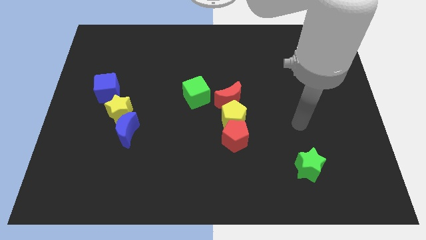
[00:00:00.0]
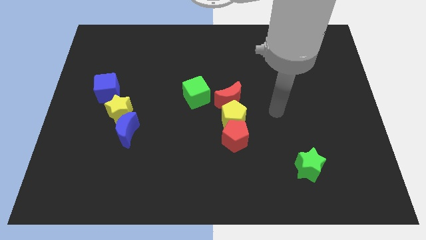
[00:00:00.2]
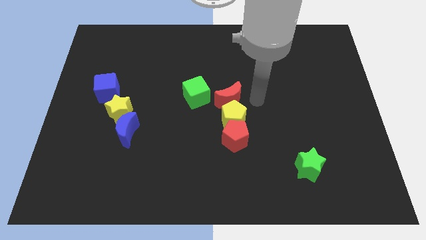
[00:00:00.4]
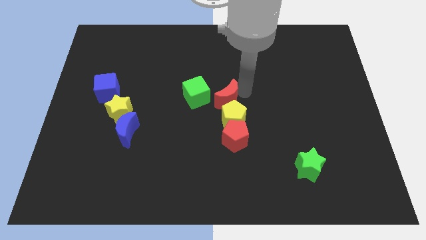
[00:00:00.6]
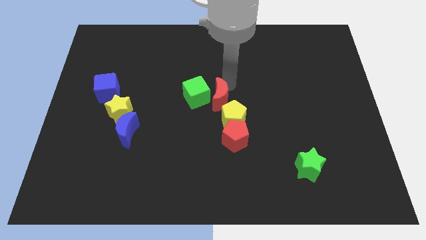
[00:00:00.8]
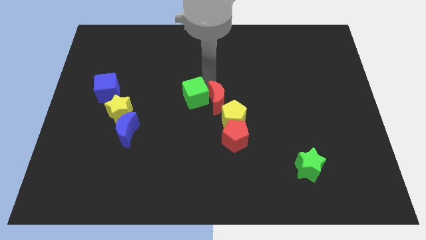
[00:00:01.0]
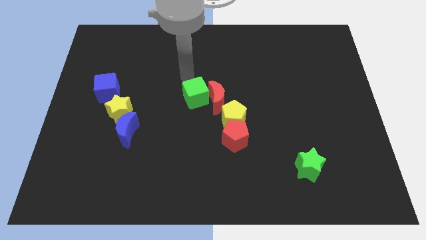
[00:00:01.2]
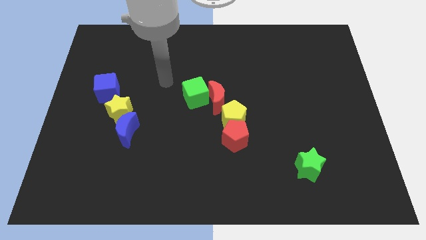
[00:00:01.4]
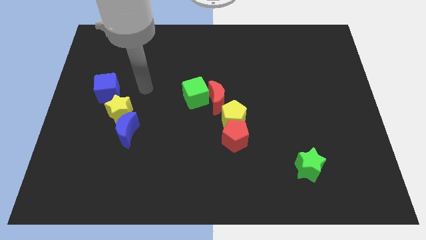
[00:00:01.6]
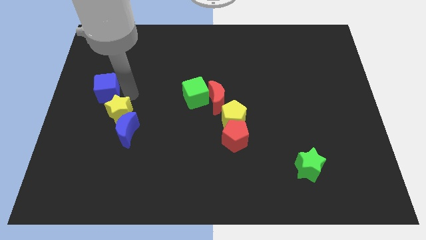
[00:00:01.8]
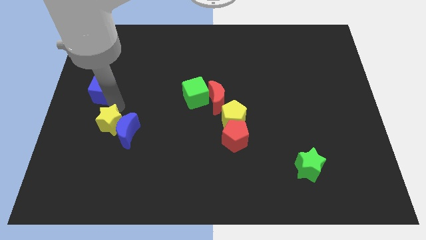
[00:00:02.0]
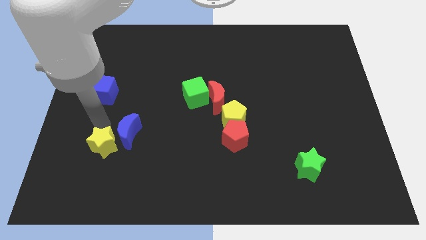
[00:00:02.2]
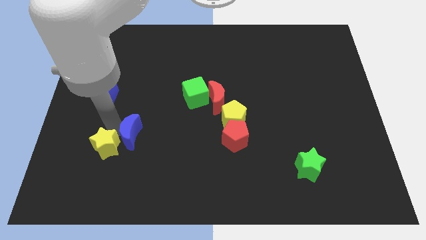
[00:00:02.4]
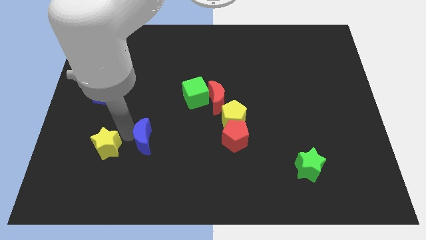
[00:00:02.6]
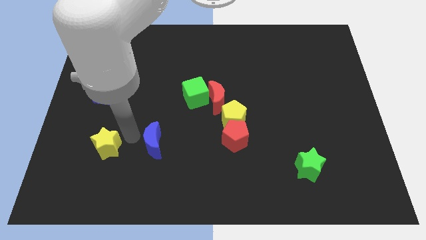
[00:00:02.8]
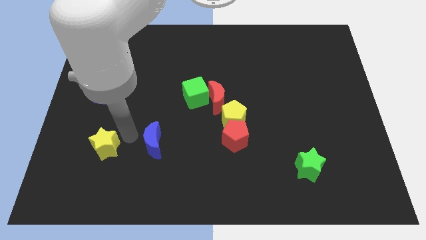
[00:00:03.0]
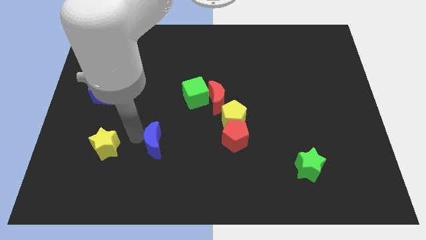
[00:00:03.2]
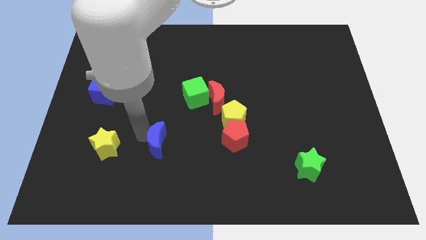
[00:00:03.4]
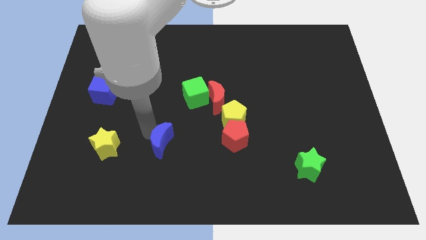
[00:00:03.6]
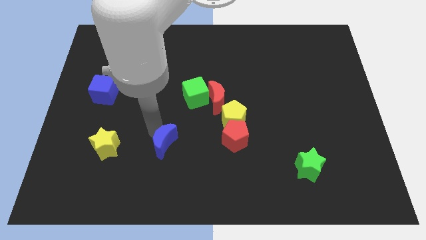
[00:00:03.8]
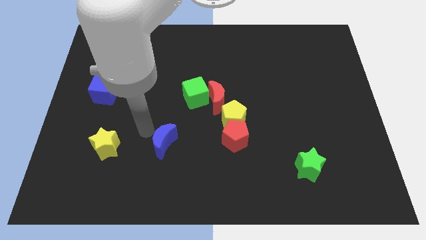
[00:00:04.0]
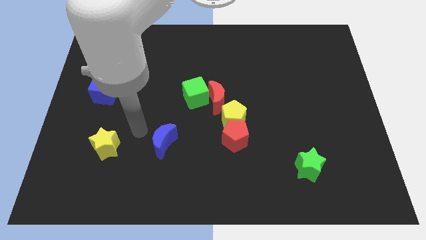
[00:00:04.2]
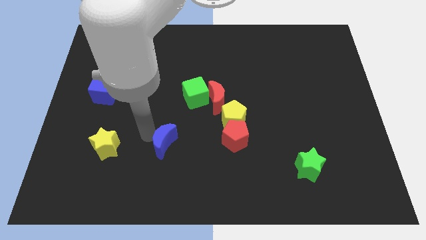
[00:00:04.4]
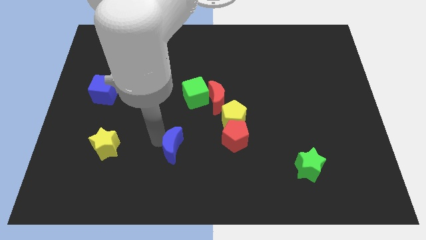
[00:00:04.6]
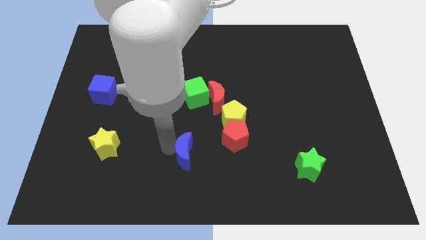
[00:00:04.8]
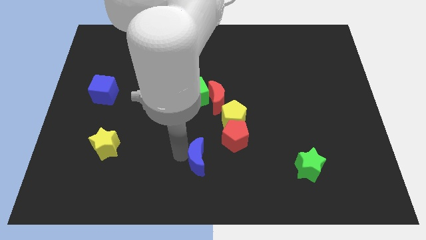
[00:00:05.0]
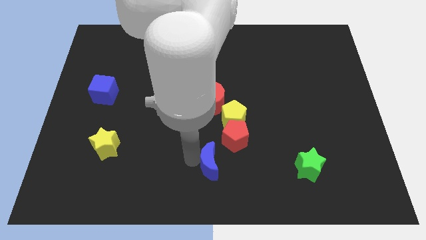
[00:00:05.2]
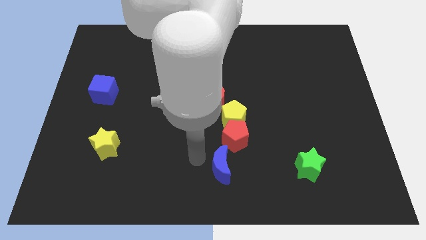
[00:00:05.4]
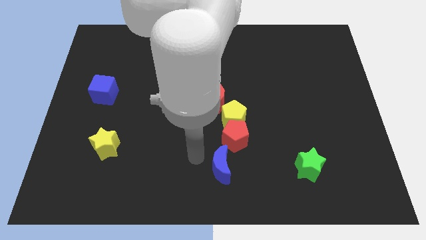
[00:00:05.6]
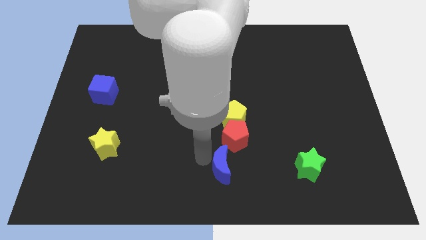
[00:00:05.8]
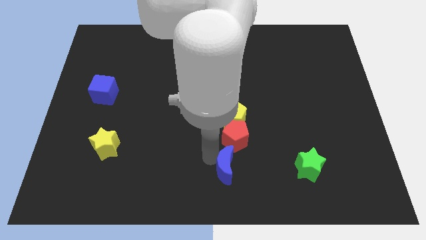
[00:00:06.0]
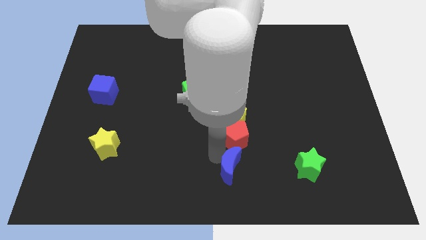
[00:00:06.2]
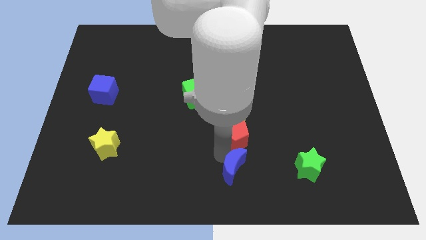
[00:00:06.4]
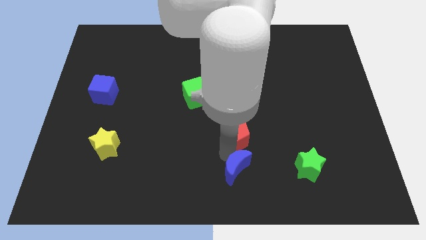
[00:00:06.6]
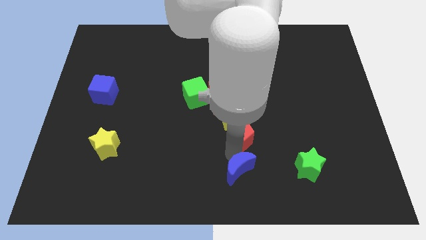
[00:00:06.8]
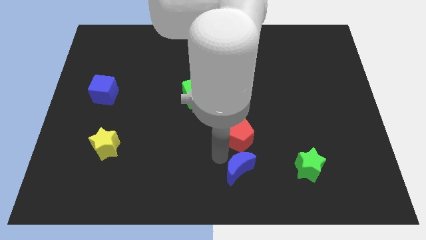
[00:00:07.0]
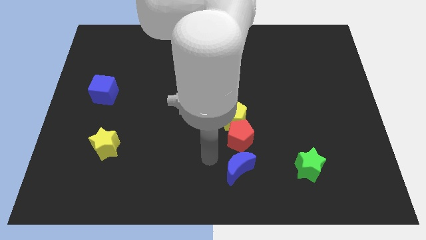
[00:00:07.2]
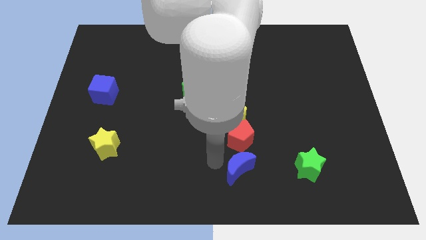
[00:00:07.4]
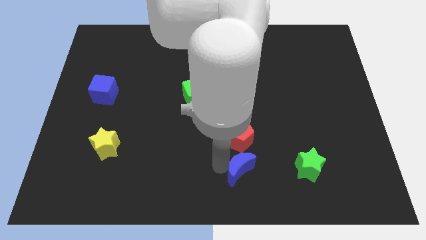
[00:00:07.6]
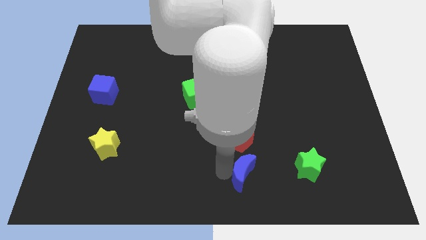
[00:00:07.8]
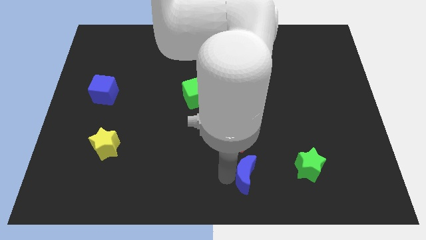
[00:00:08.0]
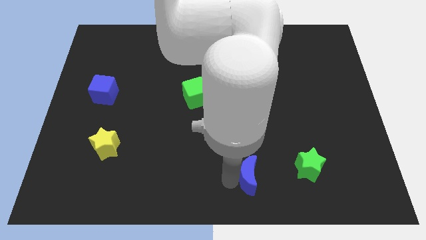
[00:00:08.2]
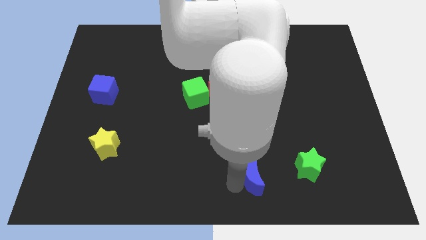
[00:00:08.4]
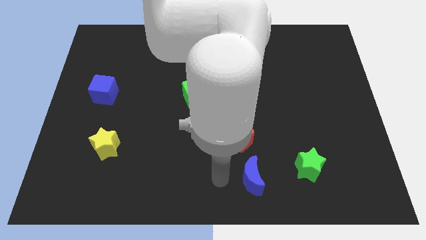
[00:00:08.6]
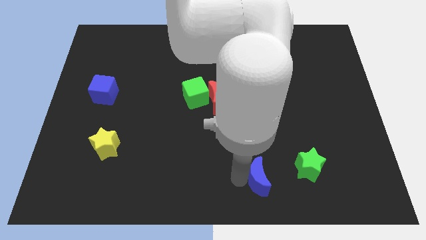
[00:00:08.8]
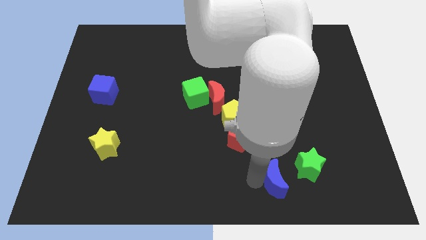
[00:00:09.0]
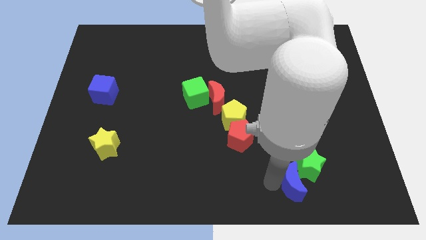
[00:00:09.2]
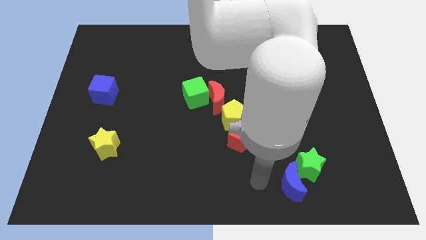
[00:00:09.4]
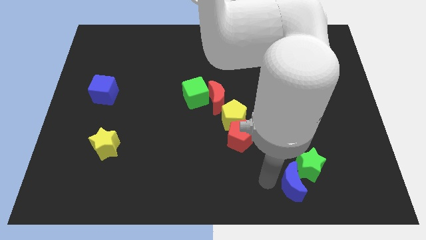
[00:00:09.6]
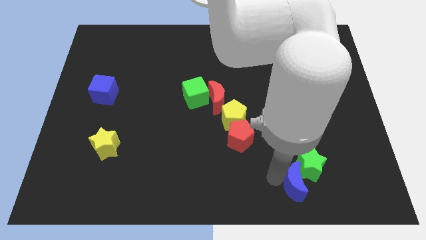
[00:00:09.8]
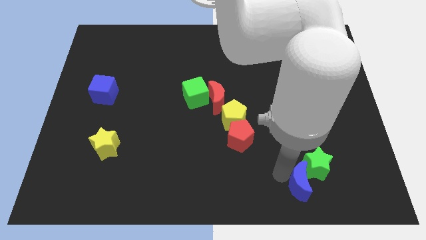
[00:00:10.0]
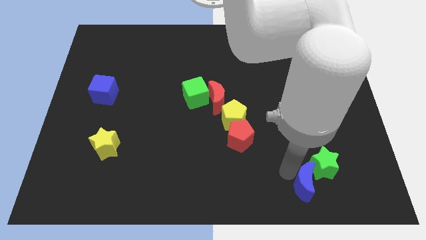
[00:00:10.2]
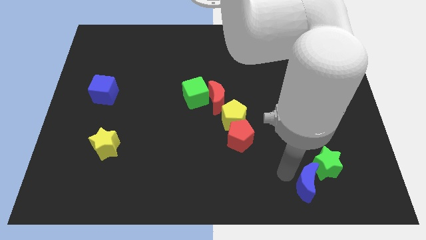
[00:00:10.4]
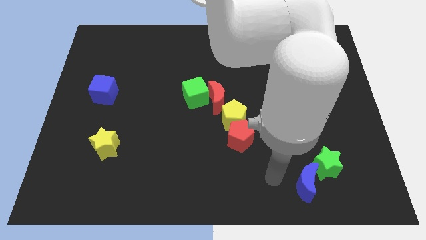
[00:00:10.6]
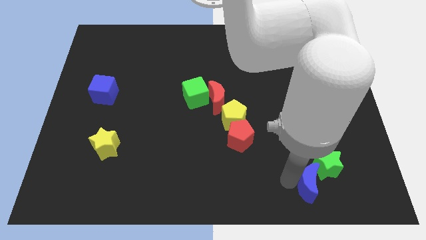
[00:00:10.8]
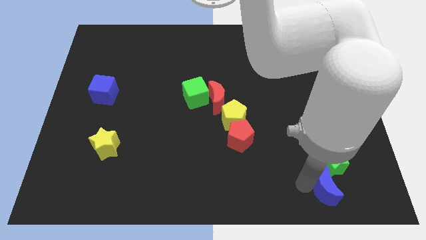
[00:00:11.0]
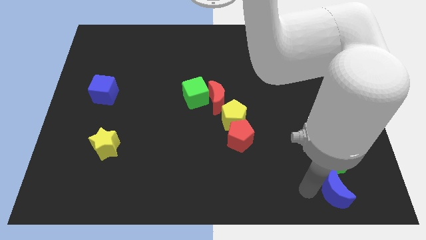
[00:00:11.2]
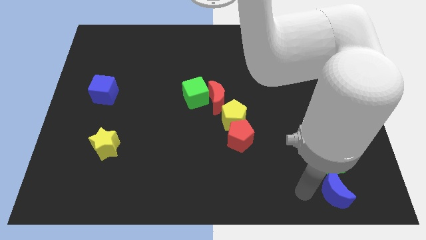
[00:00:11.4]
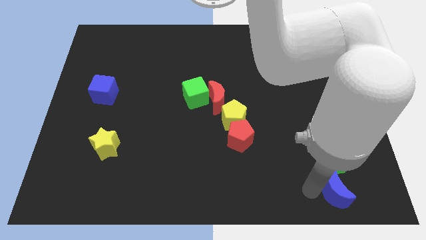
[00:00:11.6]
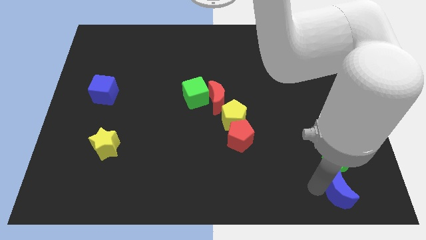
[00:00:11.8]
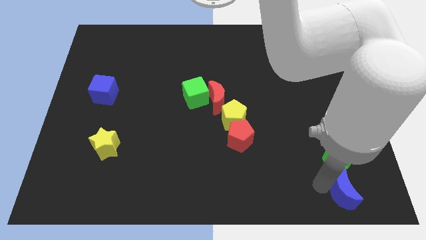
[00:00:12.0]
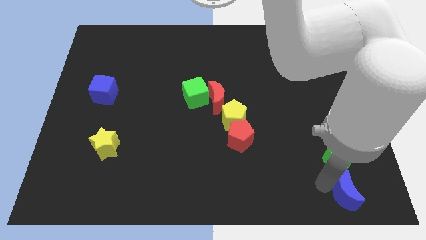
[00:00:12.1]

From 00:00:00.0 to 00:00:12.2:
push the blue moon to the lower right corner
